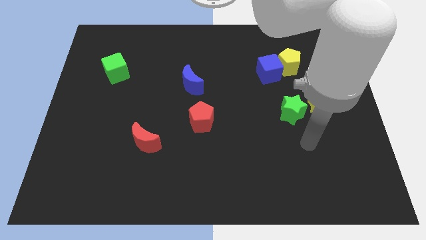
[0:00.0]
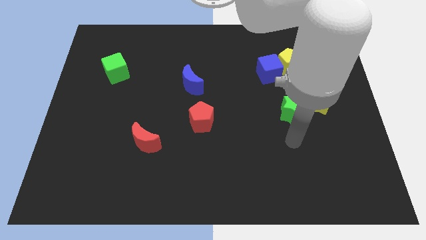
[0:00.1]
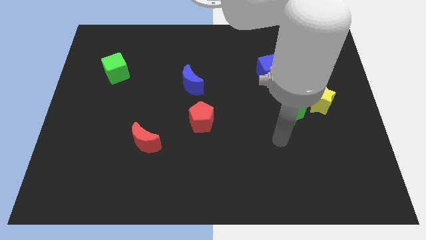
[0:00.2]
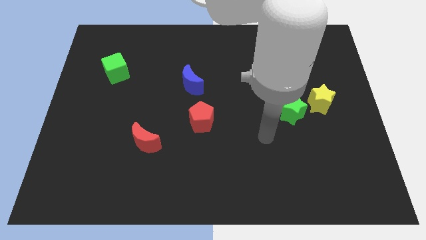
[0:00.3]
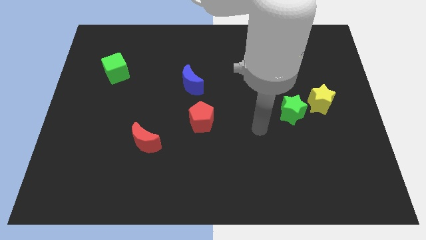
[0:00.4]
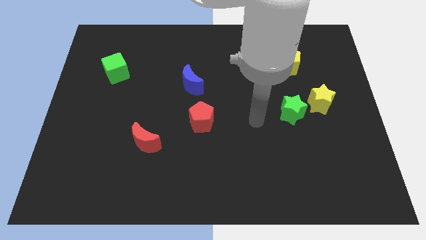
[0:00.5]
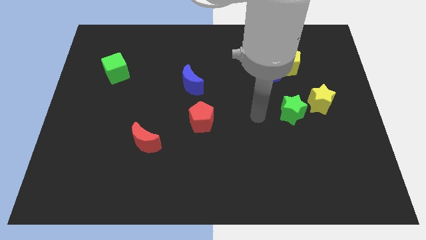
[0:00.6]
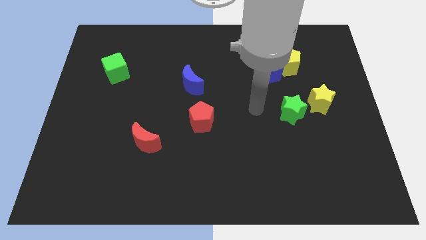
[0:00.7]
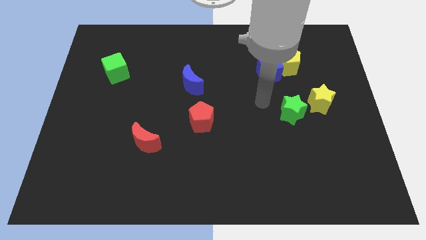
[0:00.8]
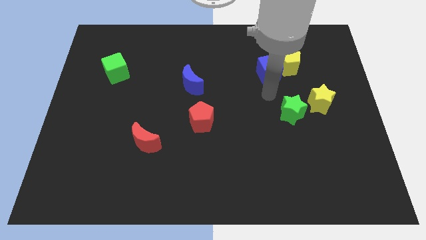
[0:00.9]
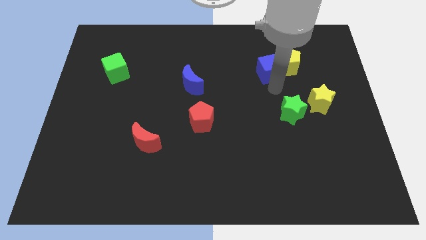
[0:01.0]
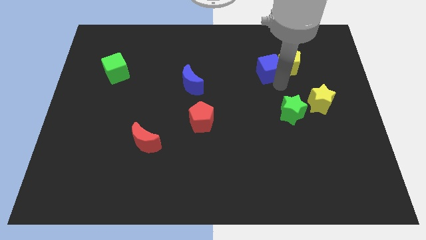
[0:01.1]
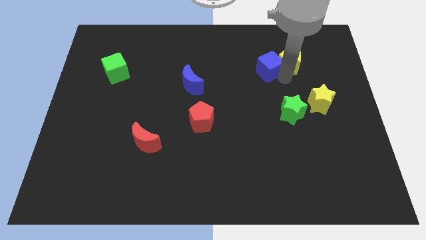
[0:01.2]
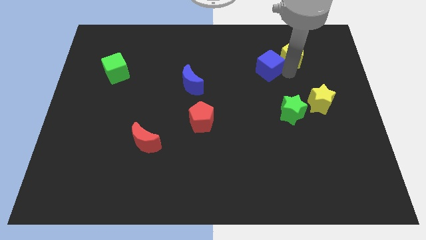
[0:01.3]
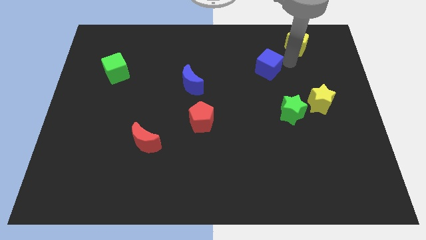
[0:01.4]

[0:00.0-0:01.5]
move the blue cube away from the yellow pentagon

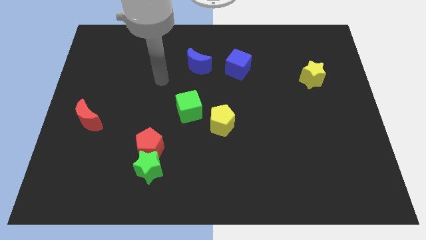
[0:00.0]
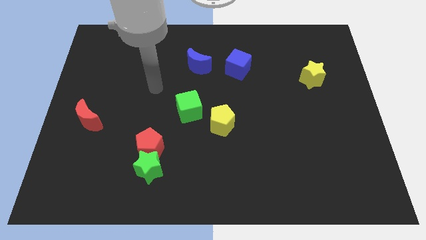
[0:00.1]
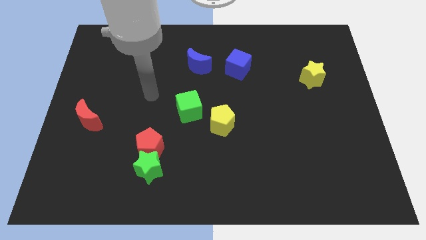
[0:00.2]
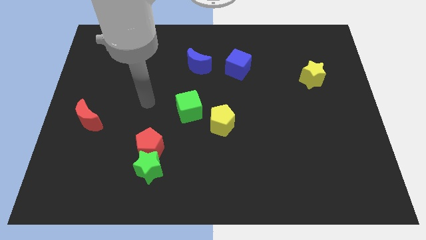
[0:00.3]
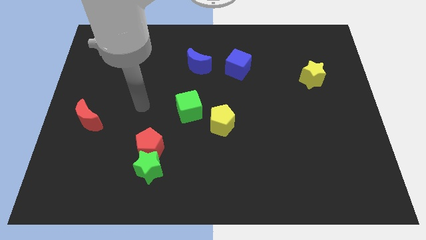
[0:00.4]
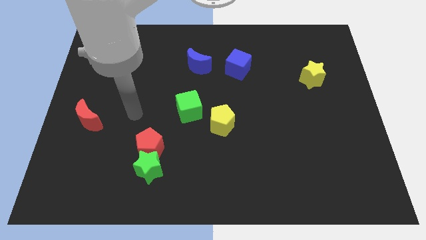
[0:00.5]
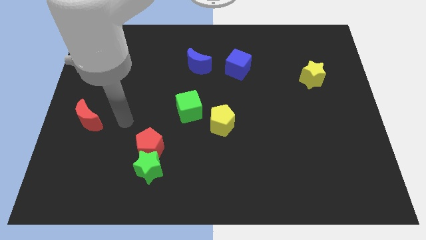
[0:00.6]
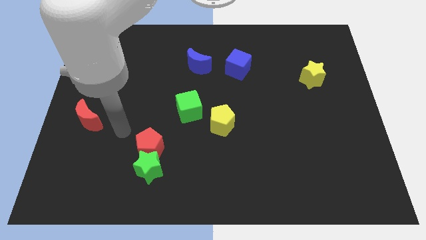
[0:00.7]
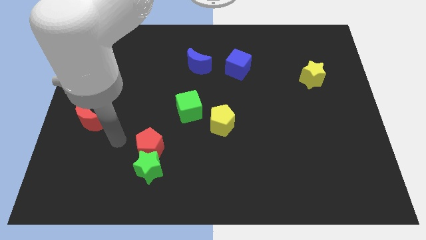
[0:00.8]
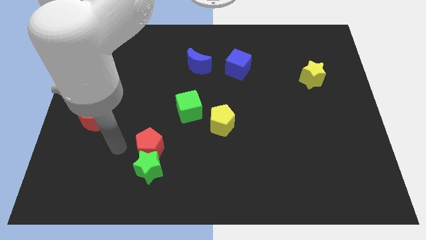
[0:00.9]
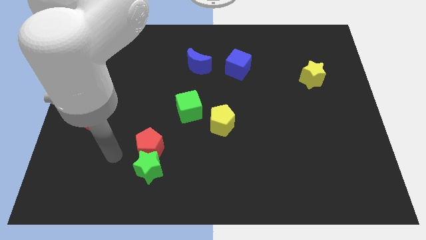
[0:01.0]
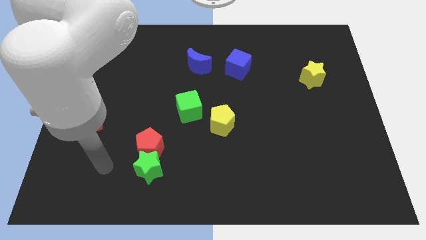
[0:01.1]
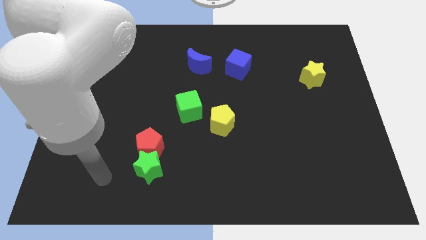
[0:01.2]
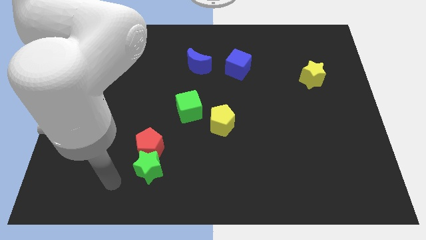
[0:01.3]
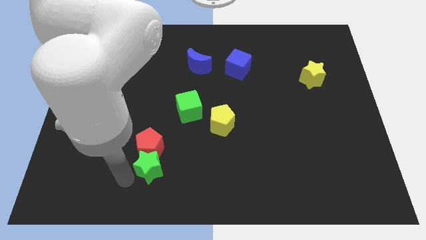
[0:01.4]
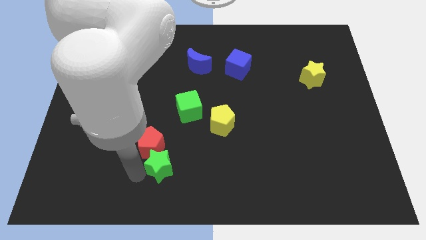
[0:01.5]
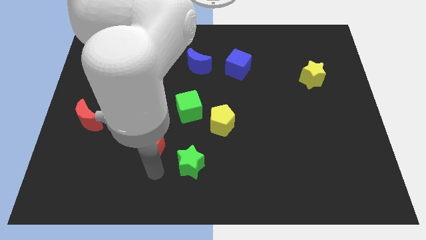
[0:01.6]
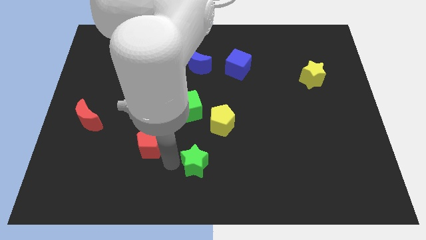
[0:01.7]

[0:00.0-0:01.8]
separate the red pentagon from the green star

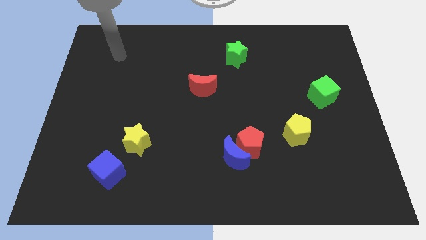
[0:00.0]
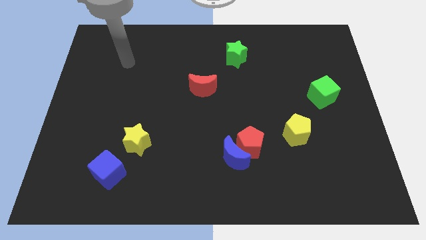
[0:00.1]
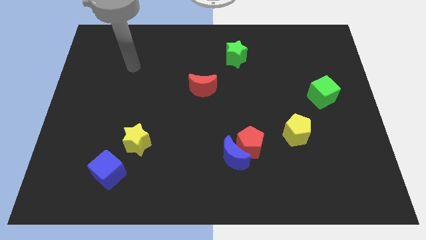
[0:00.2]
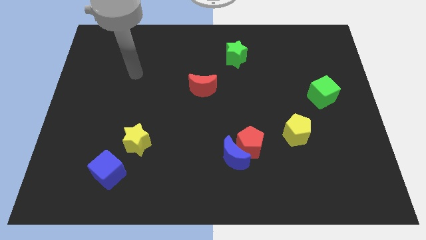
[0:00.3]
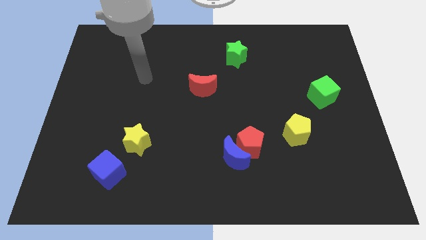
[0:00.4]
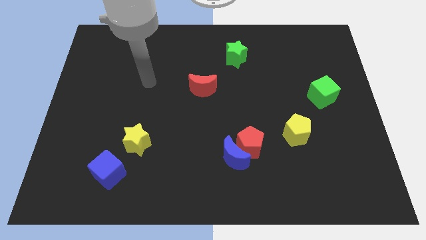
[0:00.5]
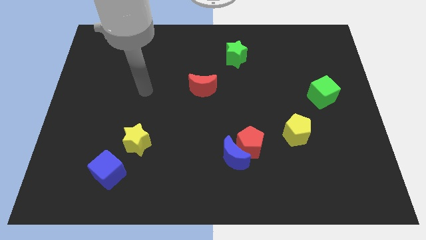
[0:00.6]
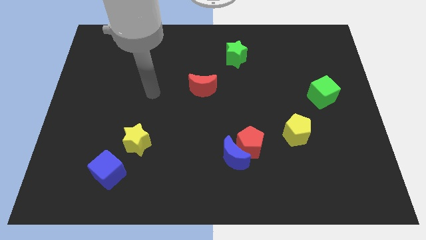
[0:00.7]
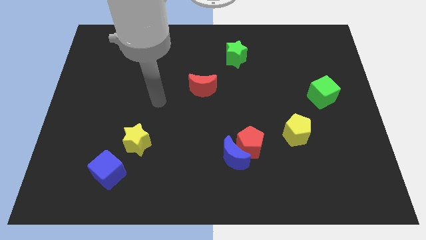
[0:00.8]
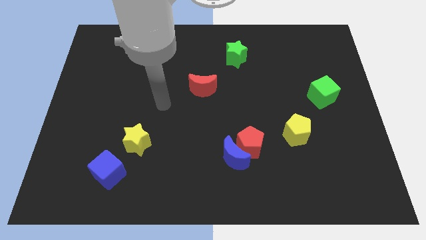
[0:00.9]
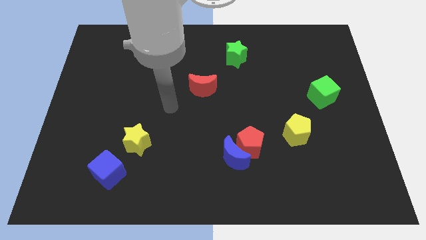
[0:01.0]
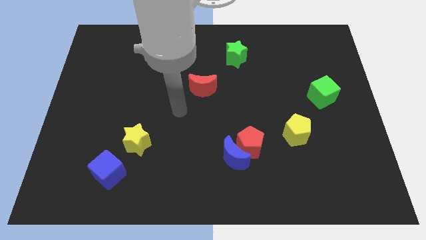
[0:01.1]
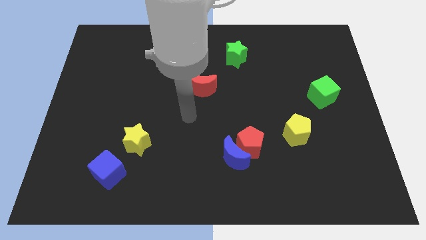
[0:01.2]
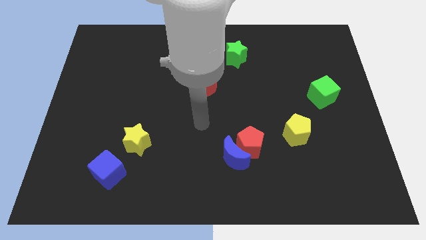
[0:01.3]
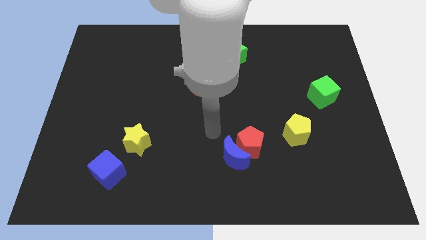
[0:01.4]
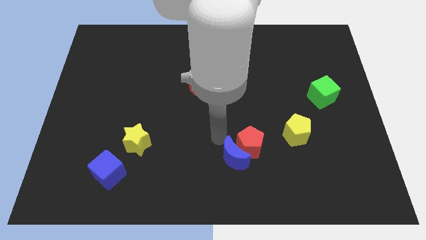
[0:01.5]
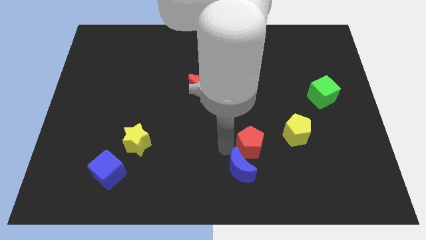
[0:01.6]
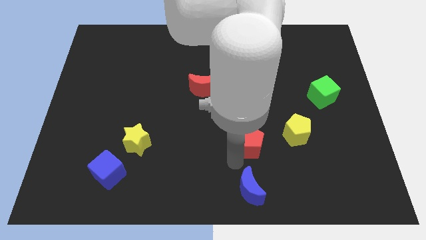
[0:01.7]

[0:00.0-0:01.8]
separate the red pentagon from the blue moon

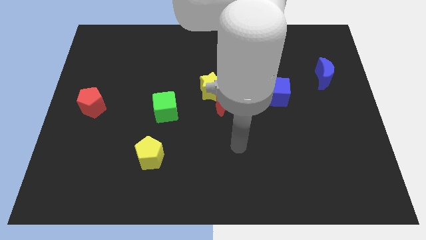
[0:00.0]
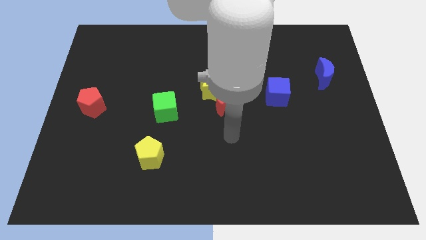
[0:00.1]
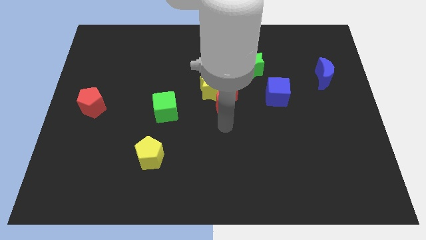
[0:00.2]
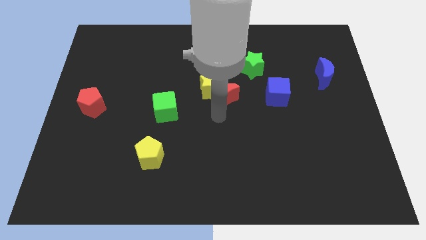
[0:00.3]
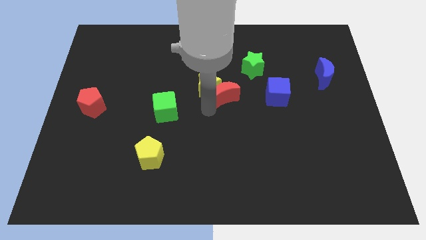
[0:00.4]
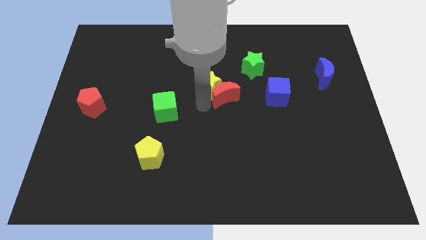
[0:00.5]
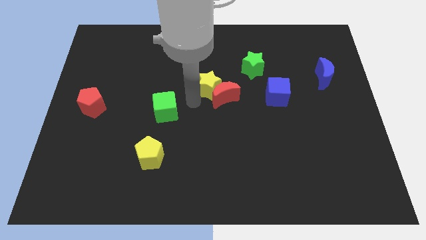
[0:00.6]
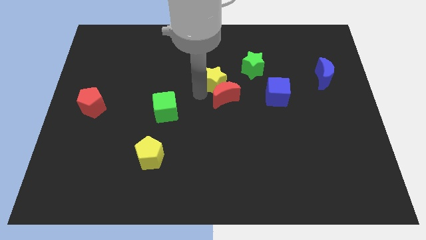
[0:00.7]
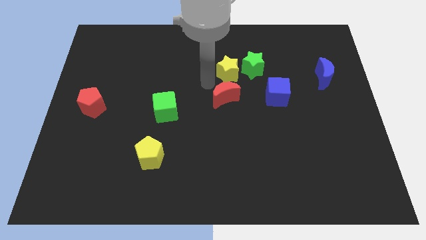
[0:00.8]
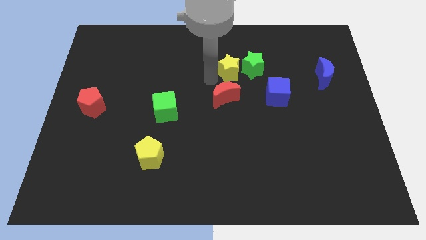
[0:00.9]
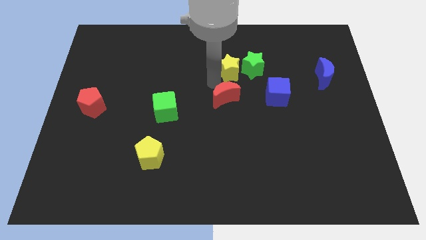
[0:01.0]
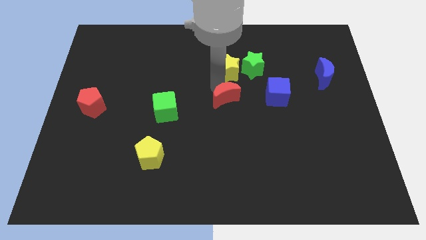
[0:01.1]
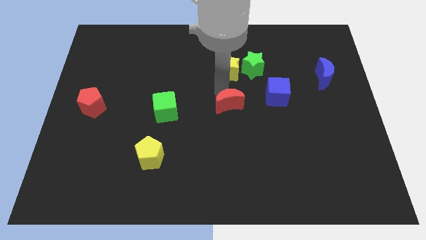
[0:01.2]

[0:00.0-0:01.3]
separate the red moon from the yellow star

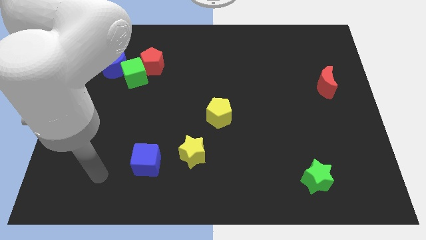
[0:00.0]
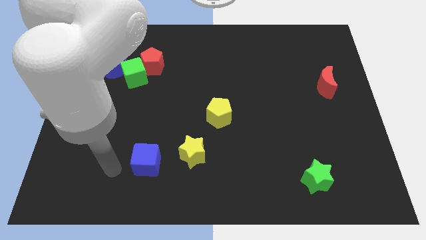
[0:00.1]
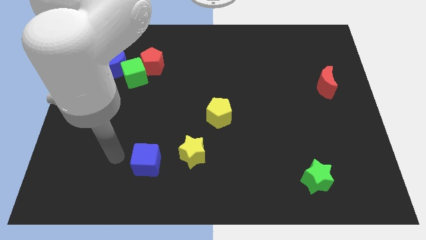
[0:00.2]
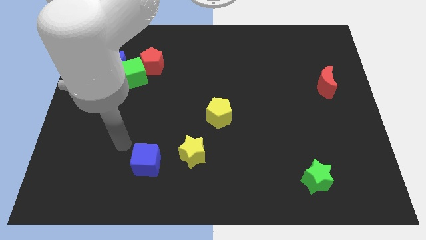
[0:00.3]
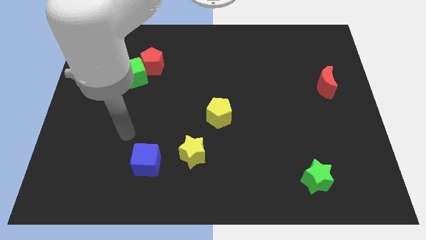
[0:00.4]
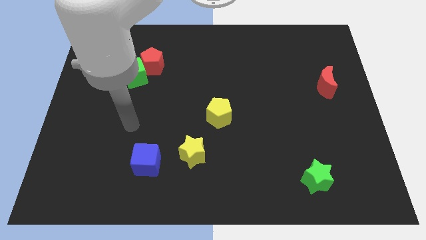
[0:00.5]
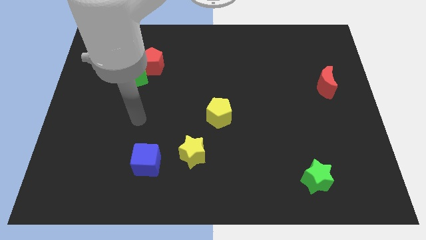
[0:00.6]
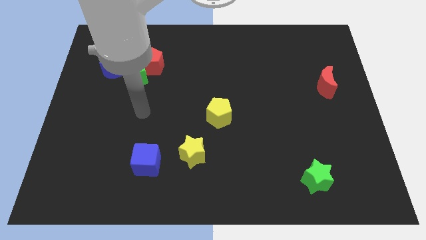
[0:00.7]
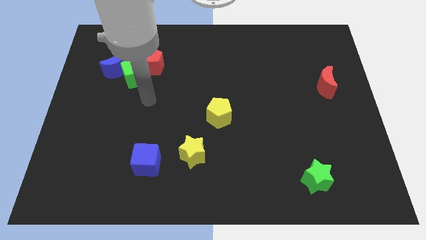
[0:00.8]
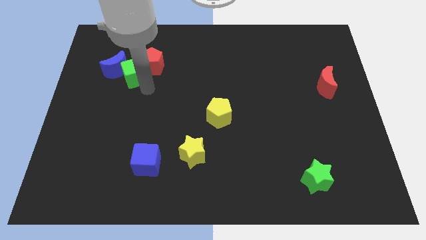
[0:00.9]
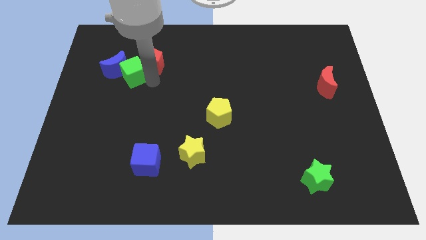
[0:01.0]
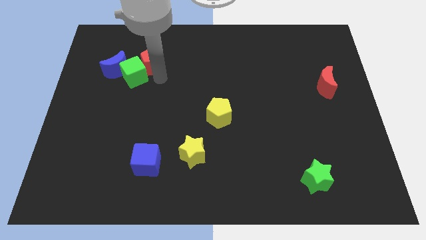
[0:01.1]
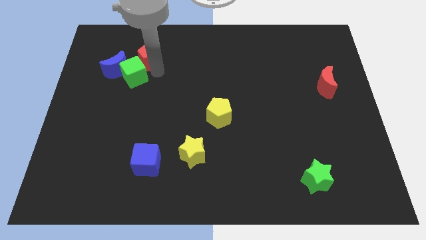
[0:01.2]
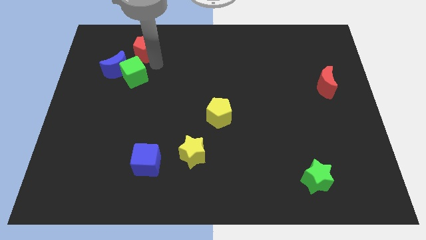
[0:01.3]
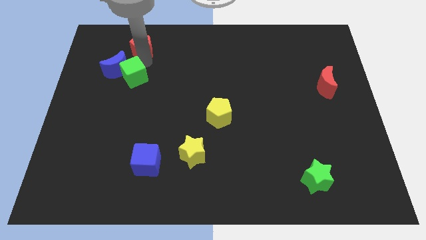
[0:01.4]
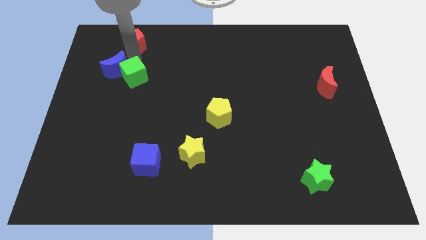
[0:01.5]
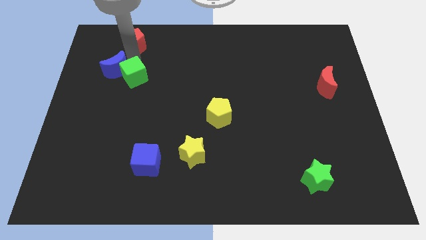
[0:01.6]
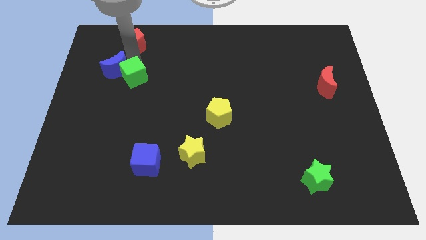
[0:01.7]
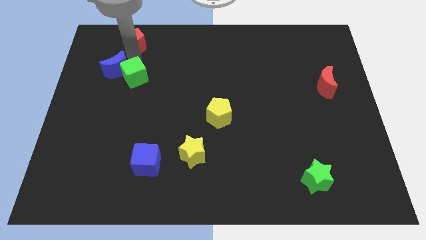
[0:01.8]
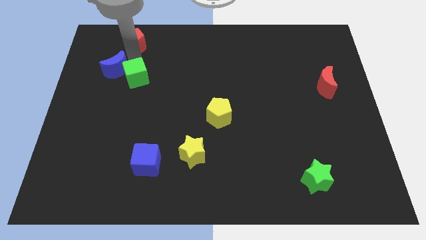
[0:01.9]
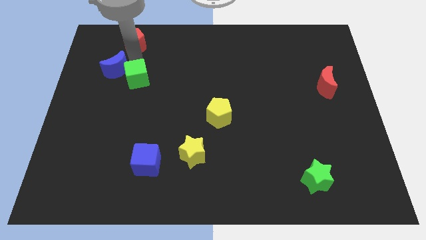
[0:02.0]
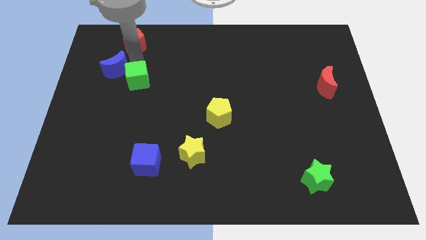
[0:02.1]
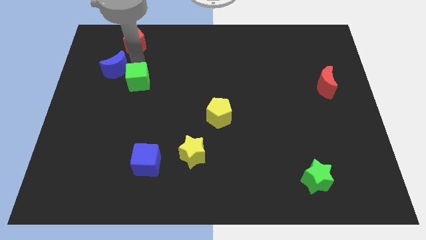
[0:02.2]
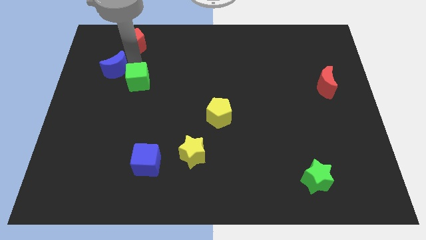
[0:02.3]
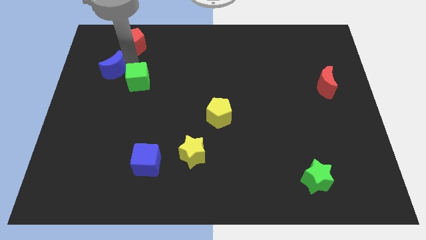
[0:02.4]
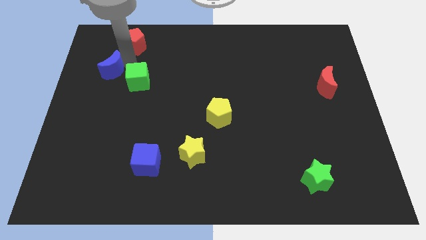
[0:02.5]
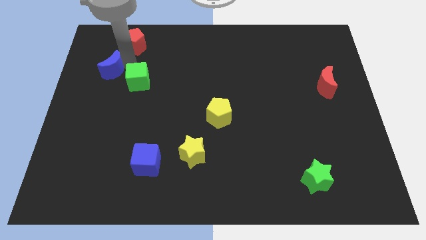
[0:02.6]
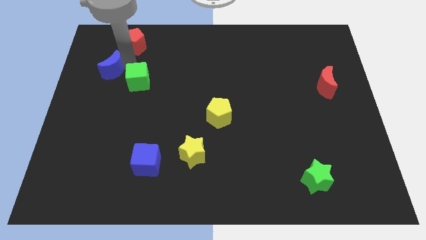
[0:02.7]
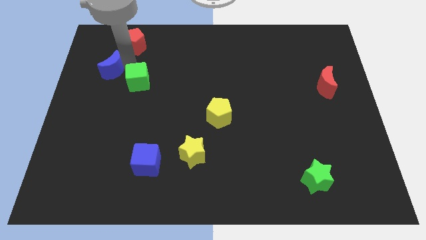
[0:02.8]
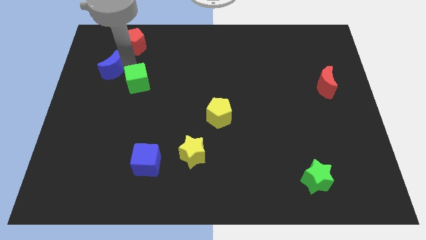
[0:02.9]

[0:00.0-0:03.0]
pull the green cube apart from the blue moon and red pentagon
